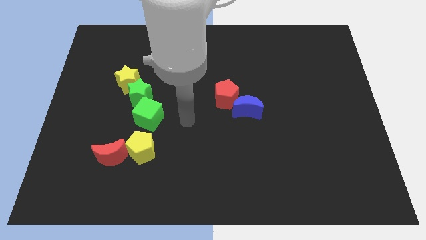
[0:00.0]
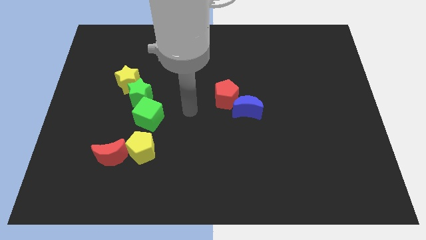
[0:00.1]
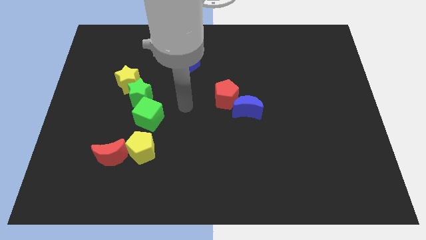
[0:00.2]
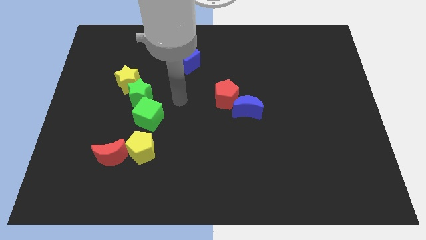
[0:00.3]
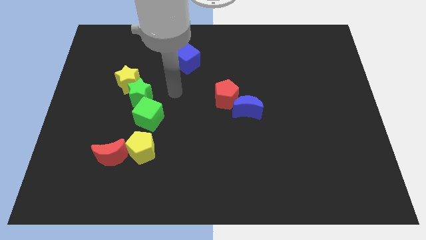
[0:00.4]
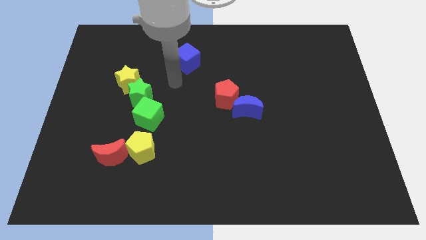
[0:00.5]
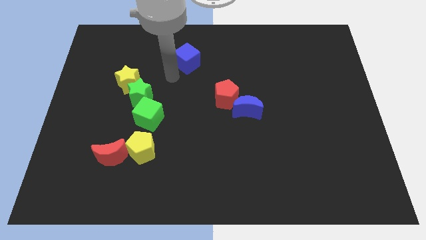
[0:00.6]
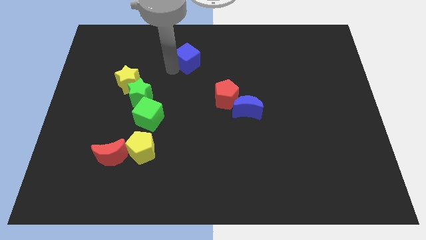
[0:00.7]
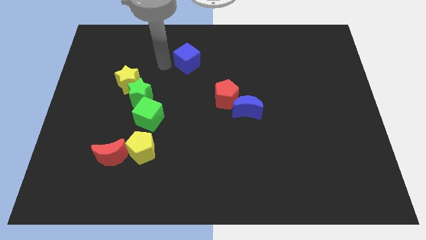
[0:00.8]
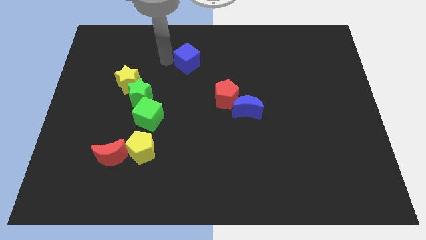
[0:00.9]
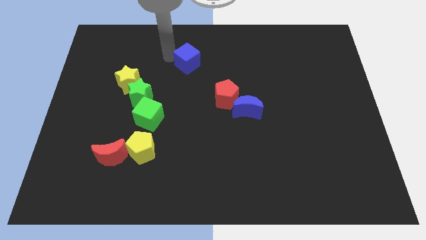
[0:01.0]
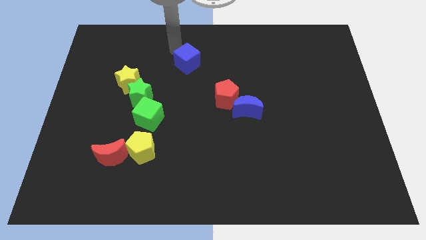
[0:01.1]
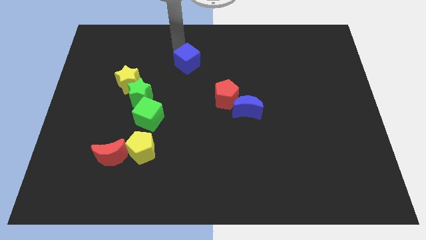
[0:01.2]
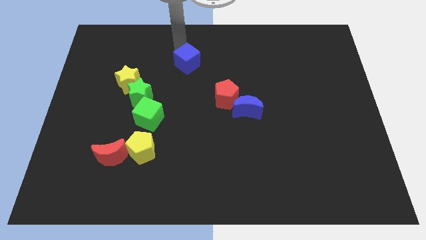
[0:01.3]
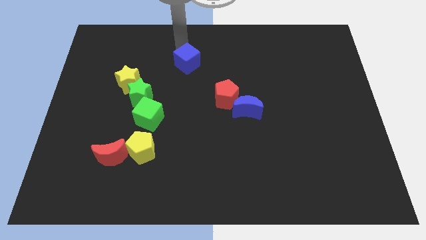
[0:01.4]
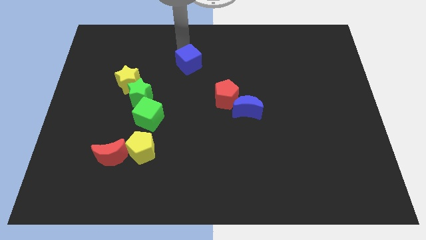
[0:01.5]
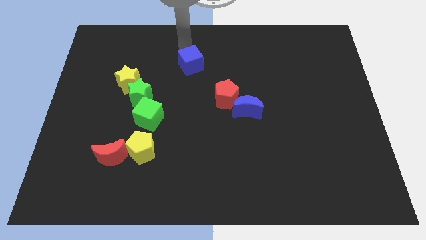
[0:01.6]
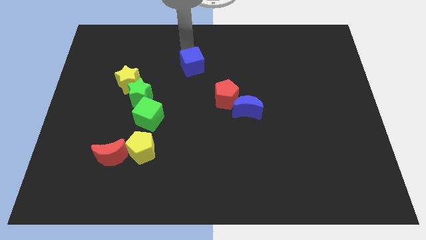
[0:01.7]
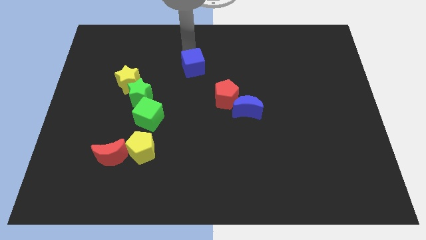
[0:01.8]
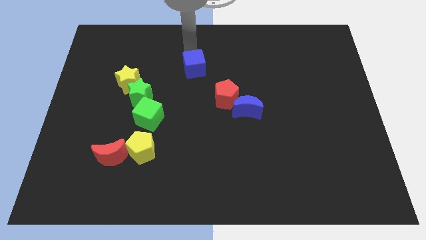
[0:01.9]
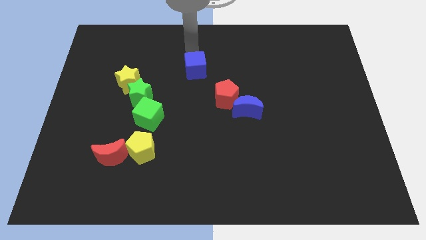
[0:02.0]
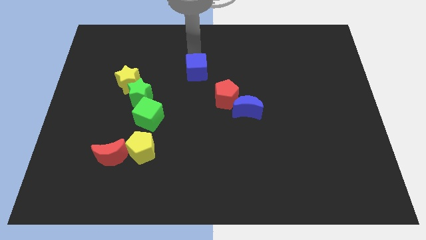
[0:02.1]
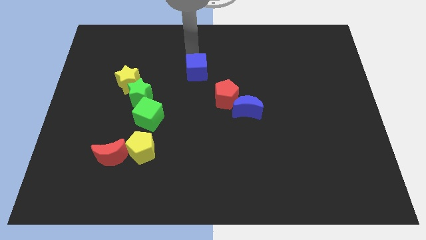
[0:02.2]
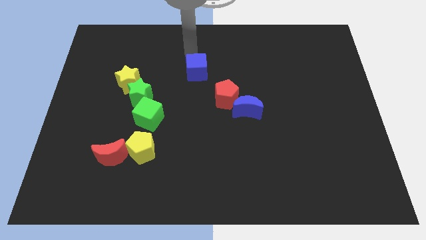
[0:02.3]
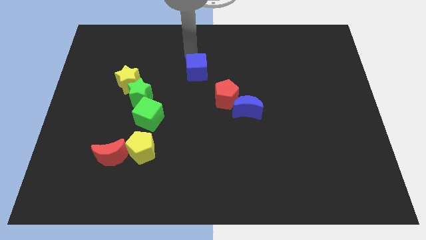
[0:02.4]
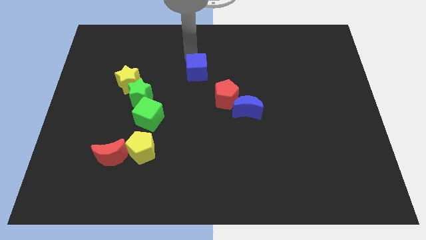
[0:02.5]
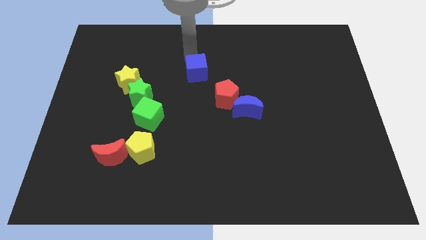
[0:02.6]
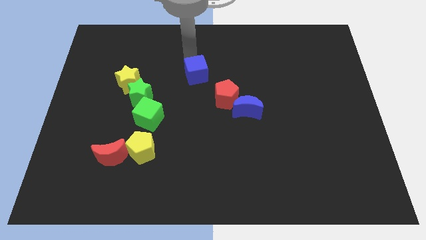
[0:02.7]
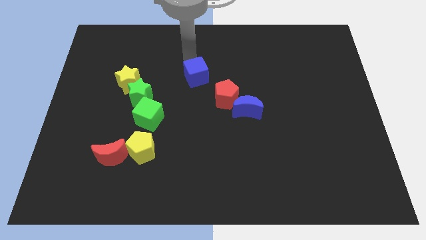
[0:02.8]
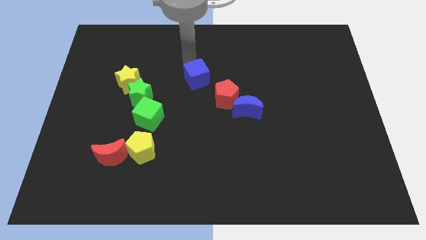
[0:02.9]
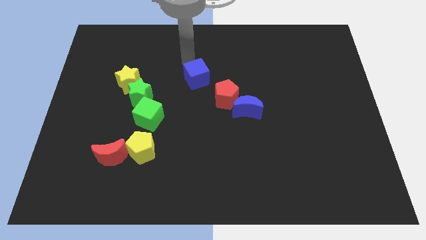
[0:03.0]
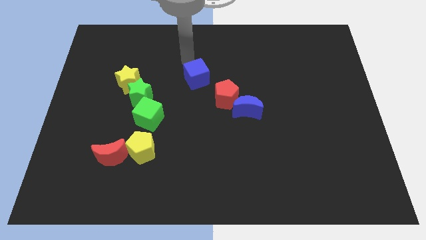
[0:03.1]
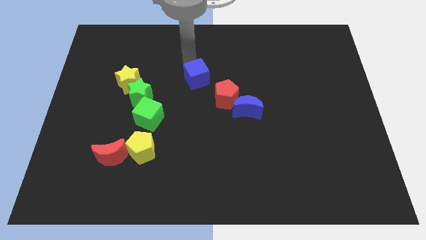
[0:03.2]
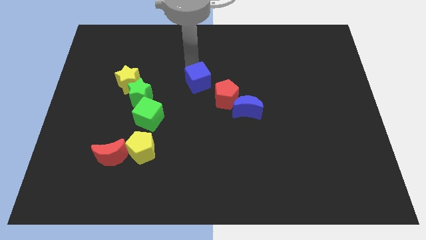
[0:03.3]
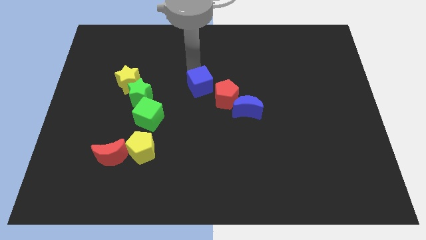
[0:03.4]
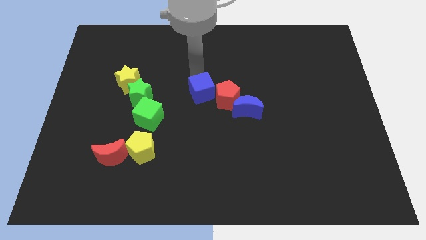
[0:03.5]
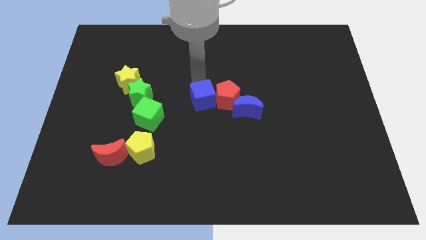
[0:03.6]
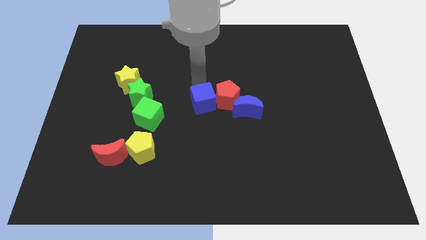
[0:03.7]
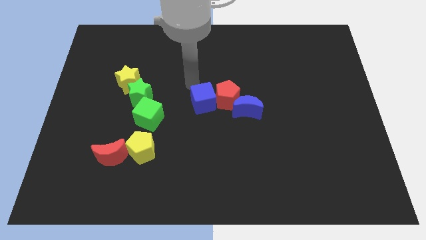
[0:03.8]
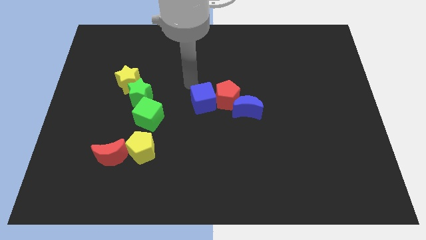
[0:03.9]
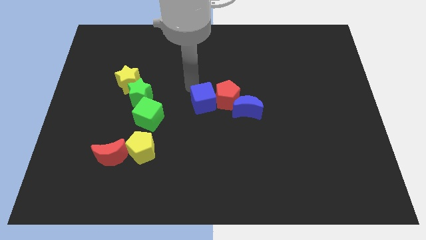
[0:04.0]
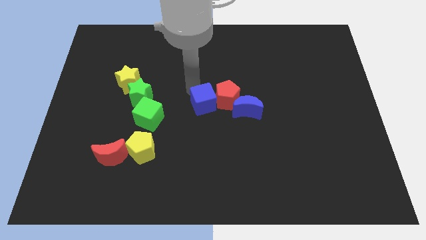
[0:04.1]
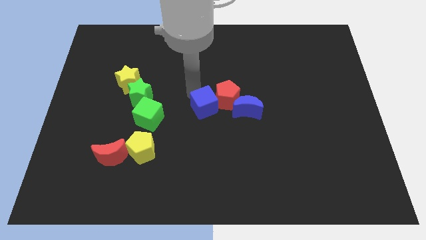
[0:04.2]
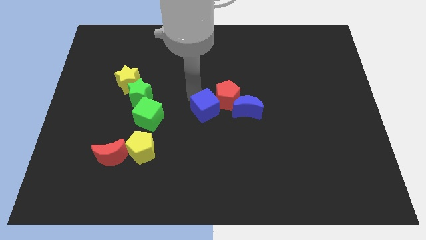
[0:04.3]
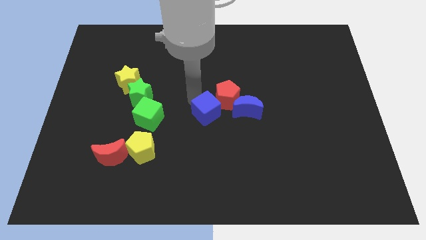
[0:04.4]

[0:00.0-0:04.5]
move the blue cube to the bottom side of the red pentagon

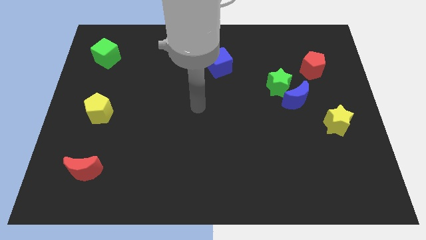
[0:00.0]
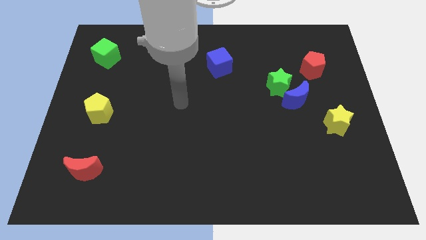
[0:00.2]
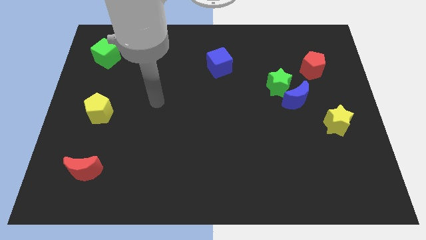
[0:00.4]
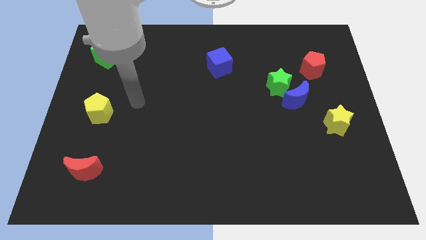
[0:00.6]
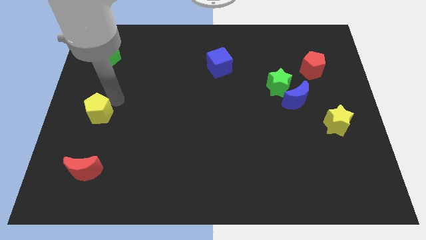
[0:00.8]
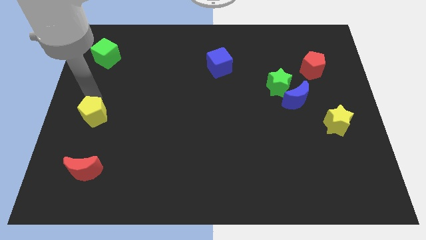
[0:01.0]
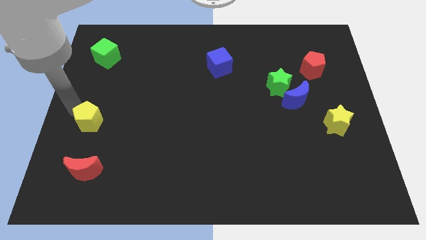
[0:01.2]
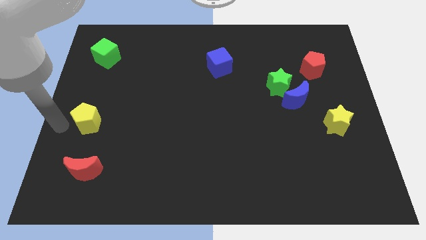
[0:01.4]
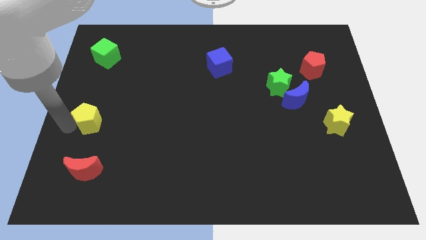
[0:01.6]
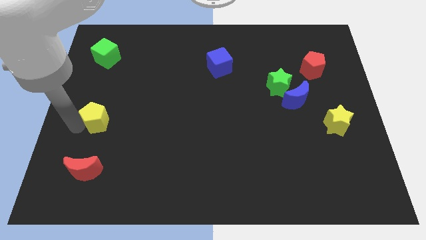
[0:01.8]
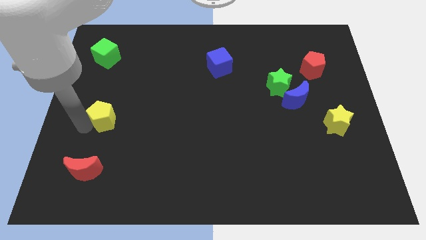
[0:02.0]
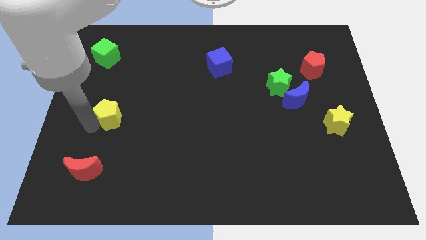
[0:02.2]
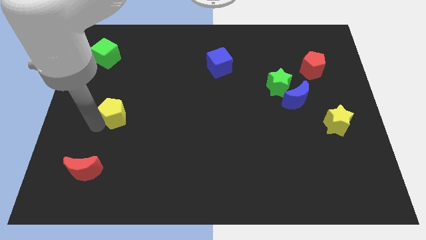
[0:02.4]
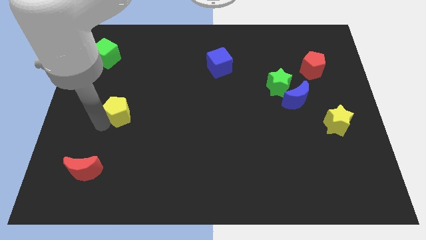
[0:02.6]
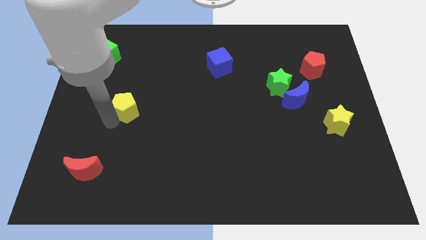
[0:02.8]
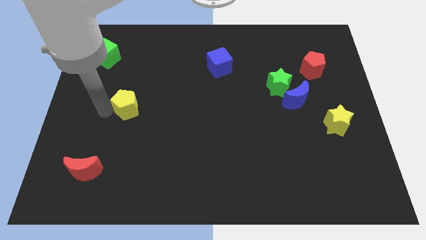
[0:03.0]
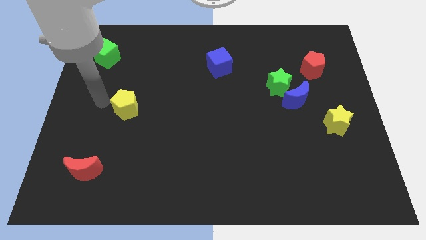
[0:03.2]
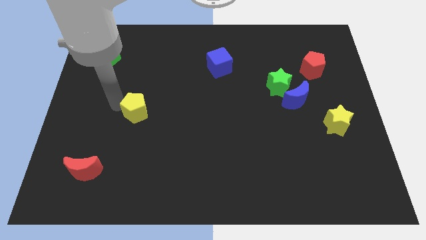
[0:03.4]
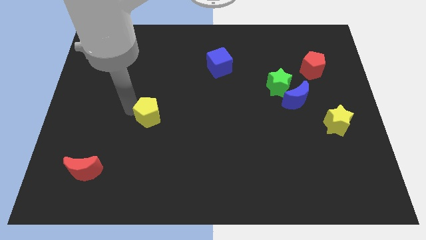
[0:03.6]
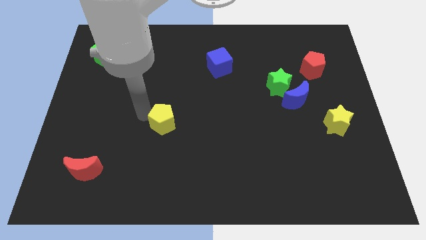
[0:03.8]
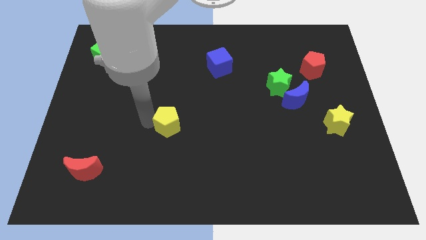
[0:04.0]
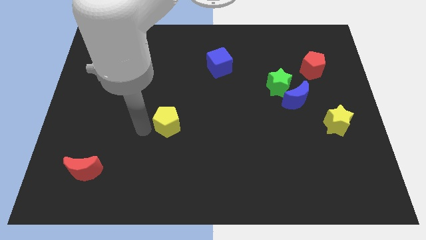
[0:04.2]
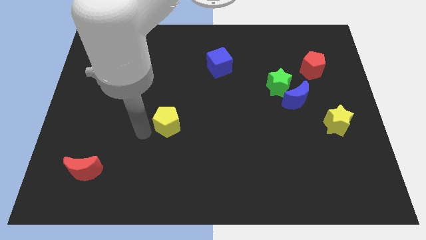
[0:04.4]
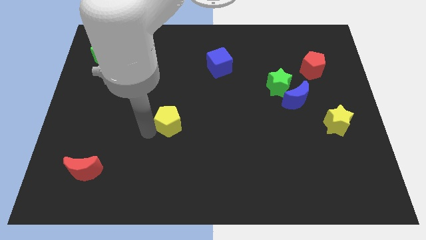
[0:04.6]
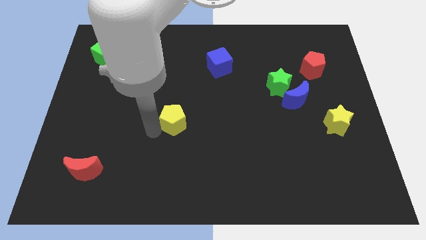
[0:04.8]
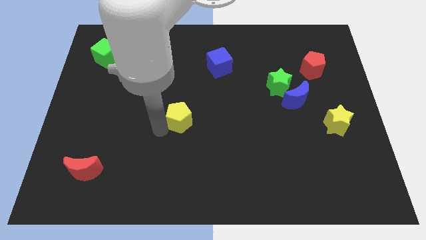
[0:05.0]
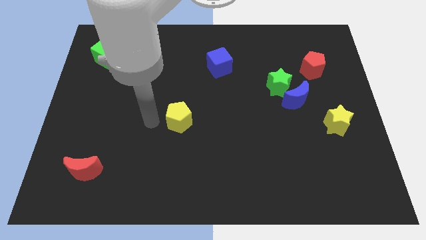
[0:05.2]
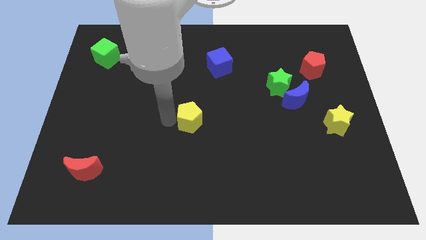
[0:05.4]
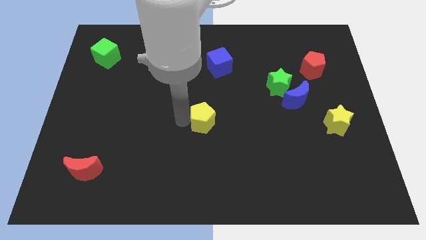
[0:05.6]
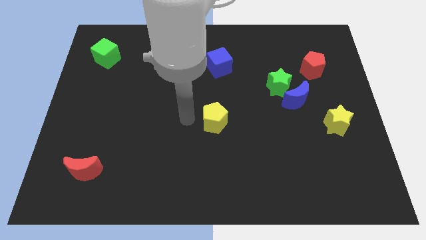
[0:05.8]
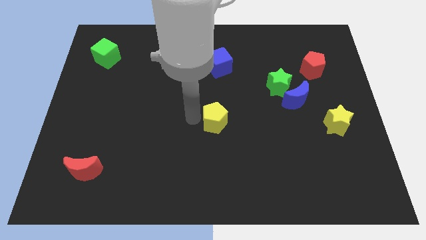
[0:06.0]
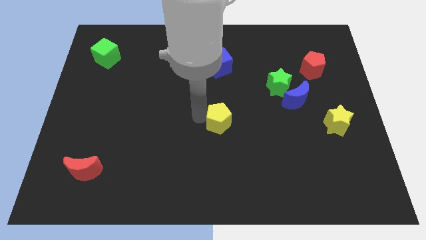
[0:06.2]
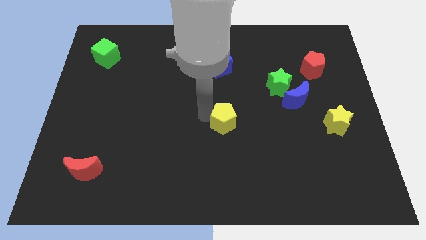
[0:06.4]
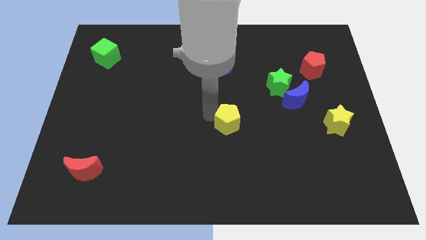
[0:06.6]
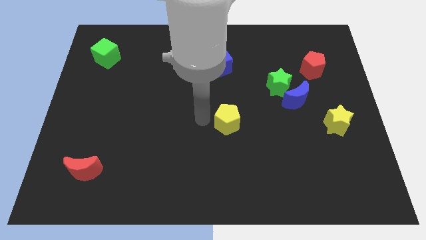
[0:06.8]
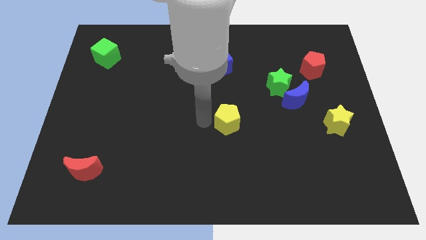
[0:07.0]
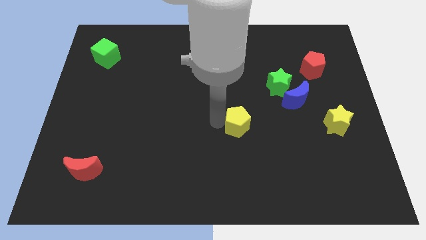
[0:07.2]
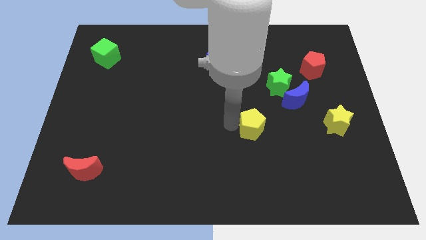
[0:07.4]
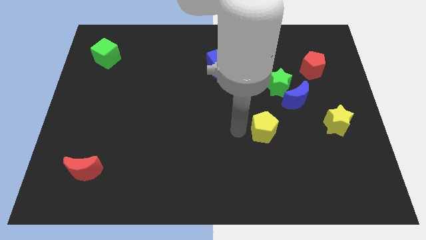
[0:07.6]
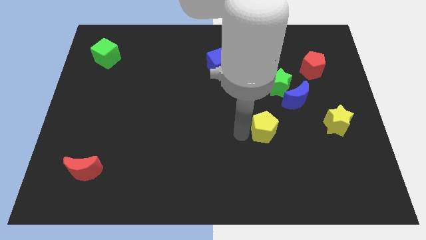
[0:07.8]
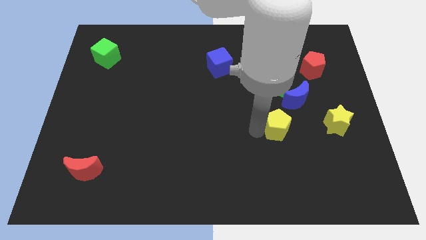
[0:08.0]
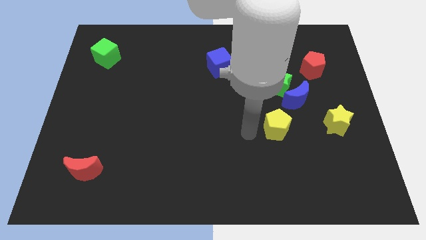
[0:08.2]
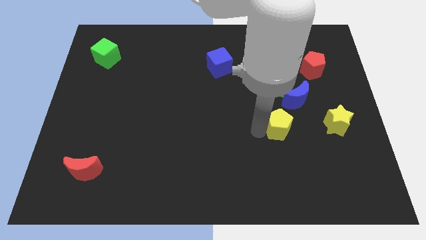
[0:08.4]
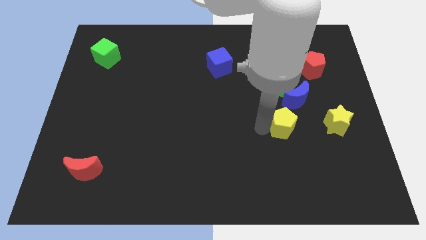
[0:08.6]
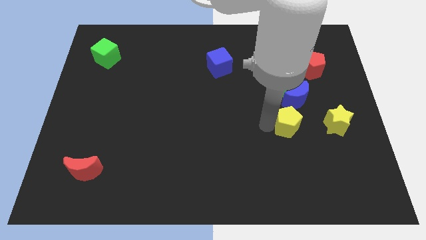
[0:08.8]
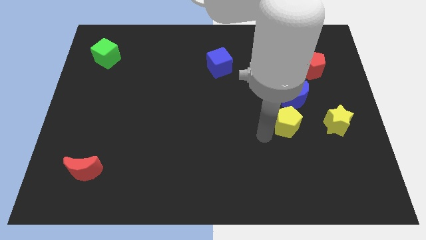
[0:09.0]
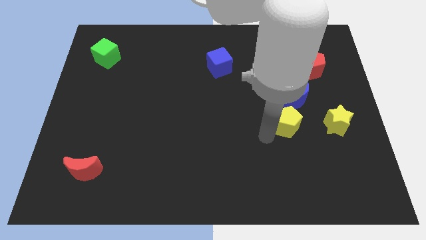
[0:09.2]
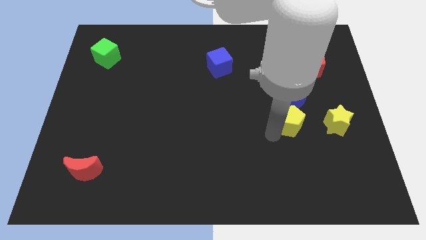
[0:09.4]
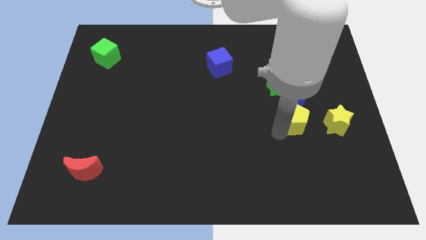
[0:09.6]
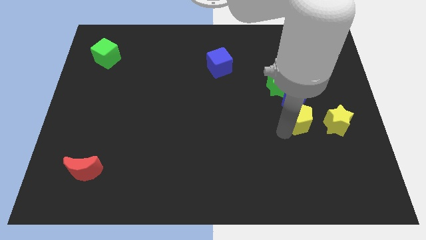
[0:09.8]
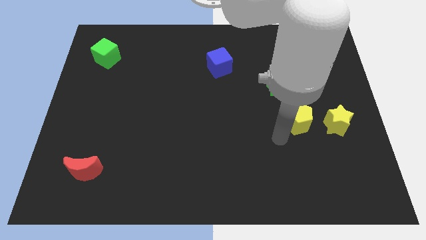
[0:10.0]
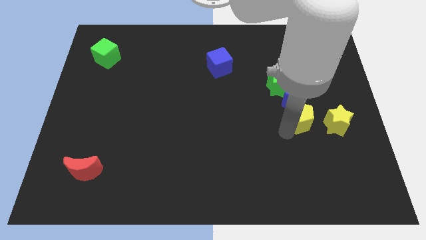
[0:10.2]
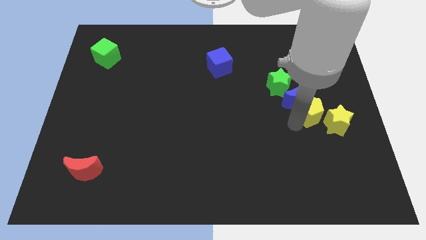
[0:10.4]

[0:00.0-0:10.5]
slide the yellow pentagon to the bottom of the red pentagon
